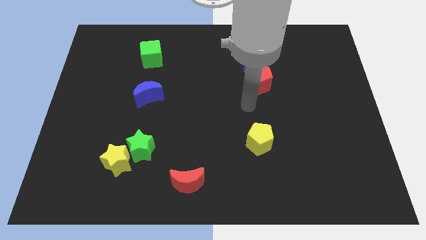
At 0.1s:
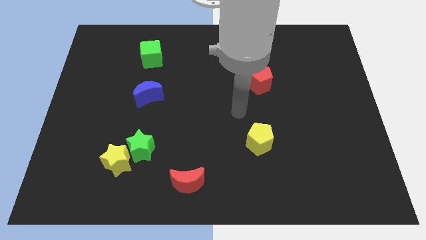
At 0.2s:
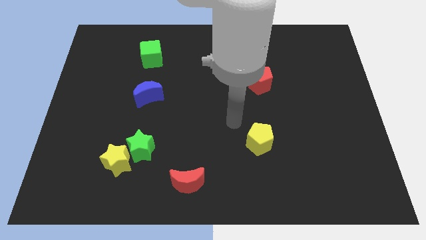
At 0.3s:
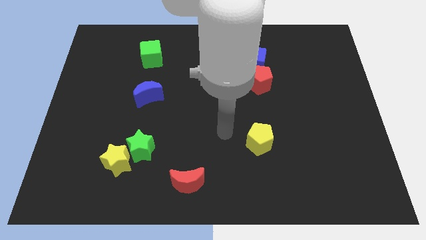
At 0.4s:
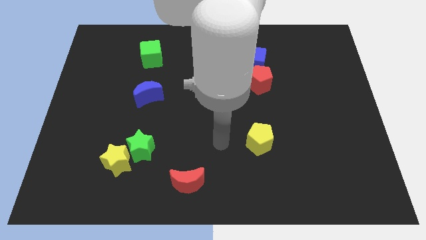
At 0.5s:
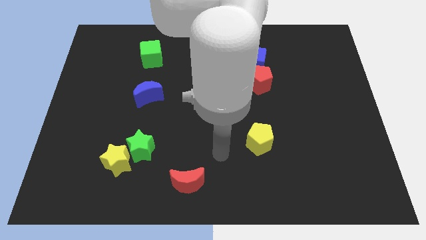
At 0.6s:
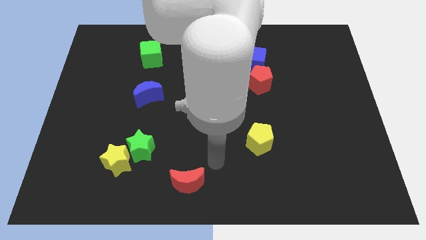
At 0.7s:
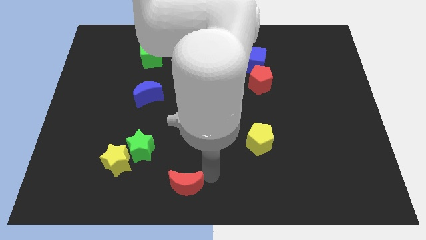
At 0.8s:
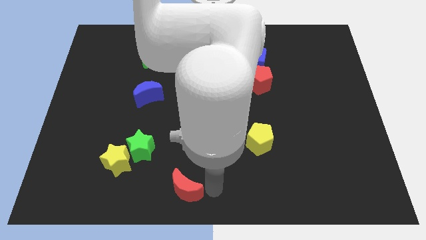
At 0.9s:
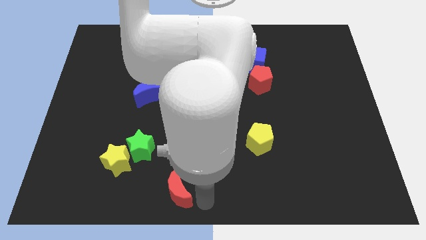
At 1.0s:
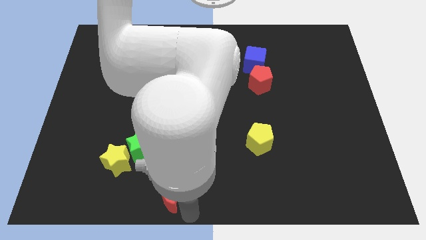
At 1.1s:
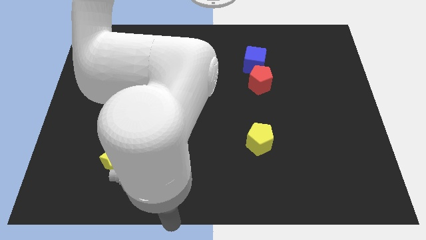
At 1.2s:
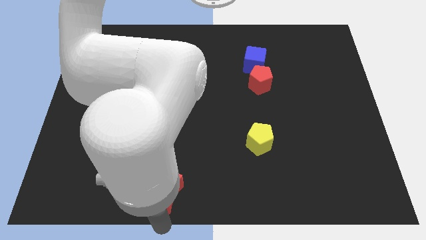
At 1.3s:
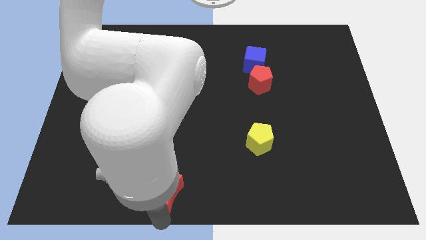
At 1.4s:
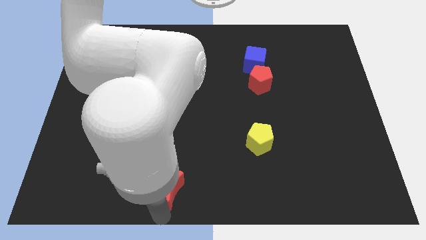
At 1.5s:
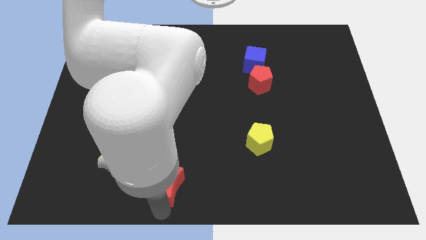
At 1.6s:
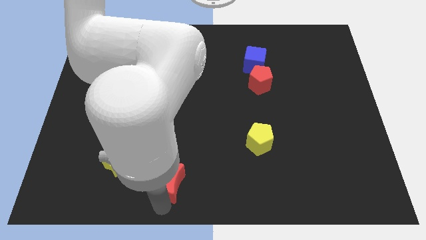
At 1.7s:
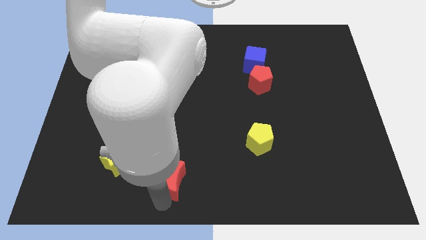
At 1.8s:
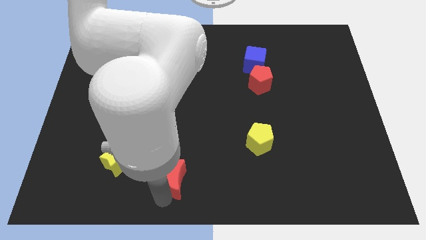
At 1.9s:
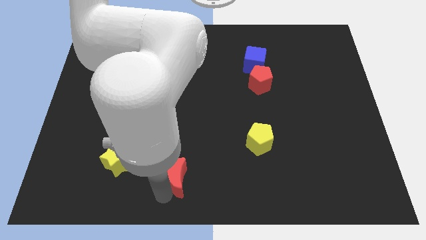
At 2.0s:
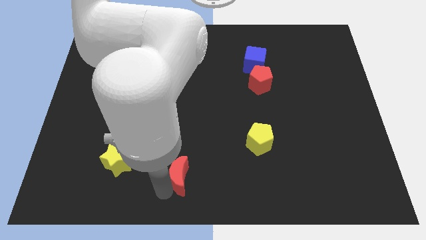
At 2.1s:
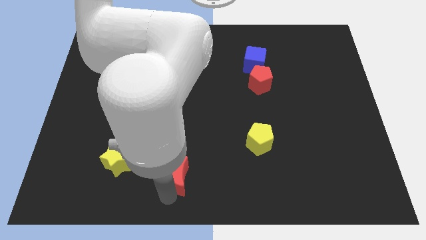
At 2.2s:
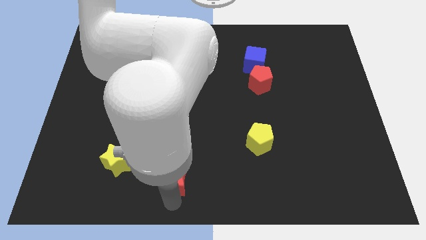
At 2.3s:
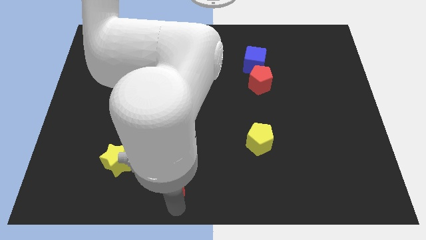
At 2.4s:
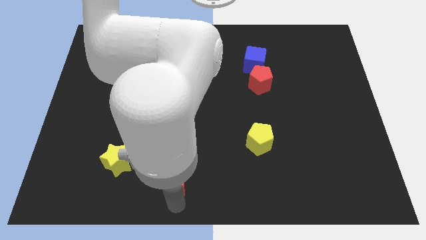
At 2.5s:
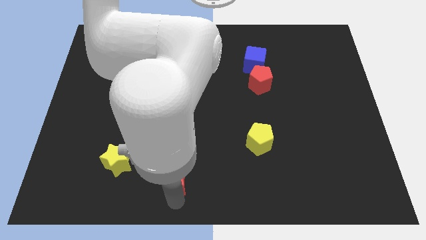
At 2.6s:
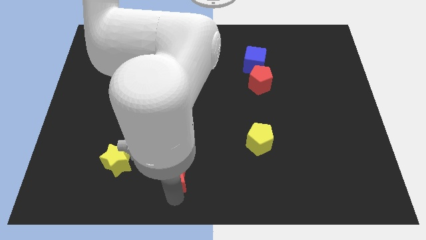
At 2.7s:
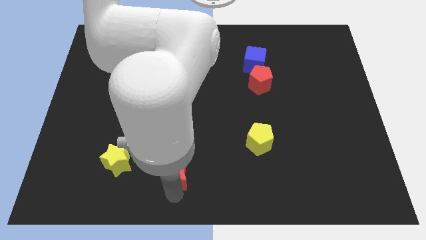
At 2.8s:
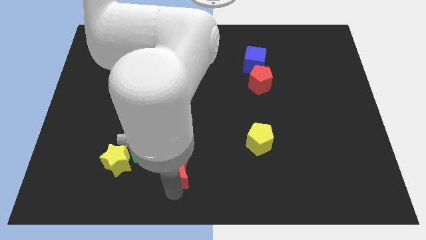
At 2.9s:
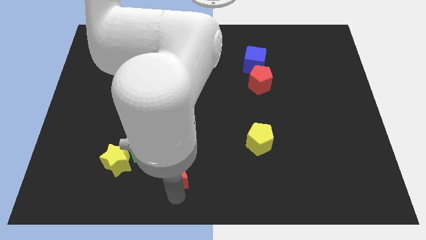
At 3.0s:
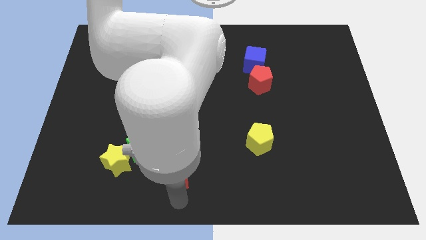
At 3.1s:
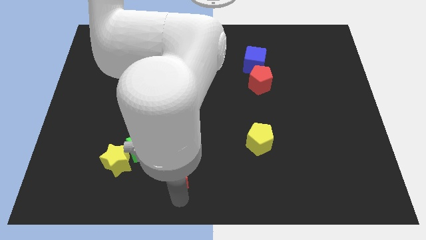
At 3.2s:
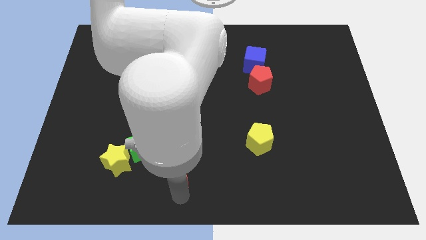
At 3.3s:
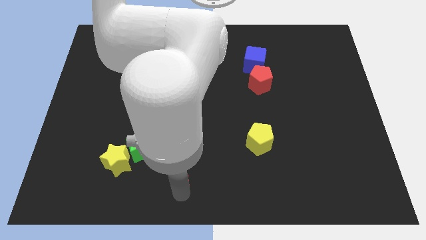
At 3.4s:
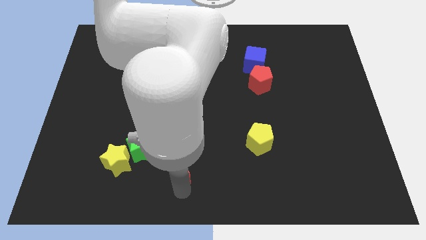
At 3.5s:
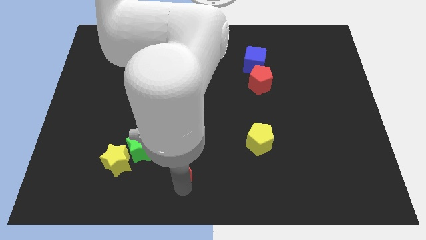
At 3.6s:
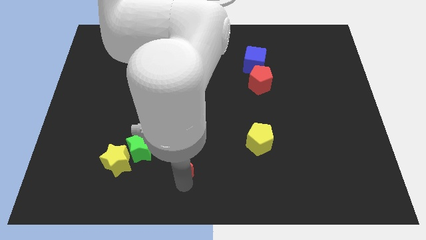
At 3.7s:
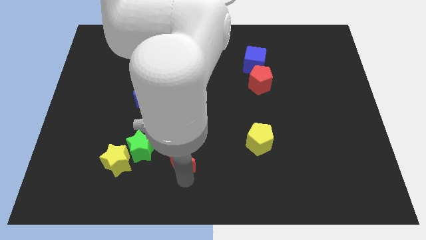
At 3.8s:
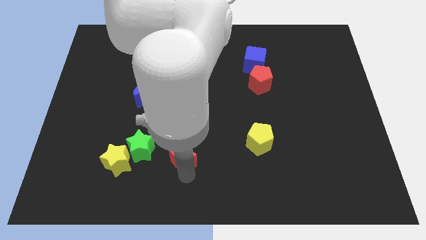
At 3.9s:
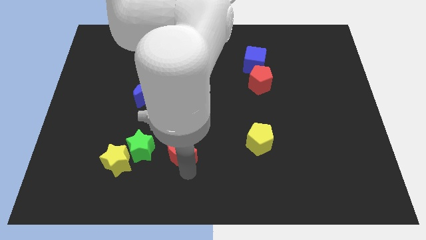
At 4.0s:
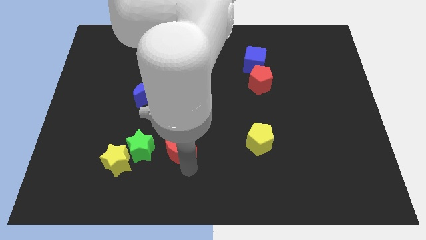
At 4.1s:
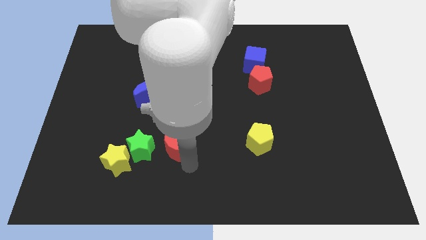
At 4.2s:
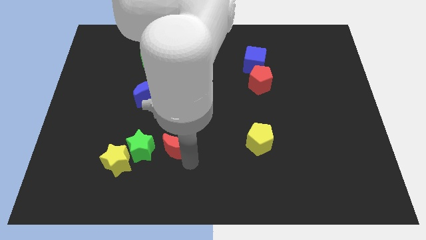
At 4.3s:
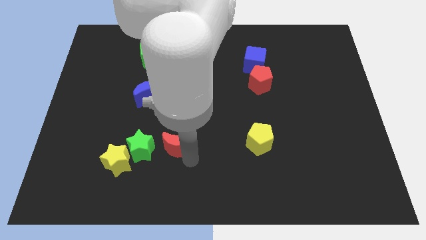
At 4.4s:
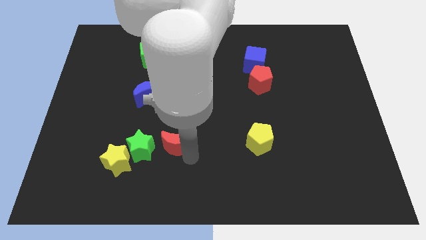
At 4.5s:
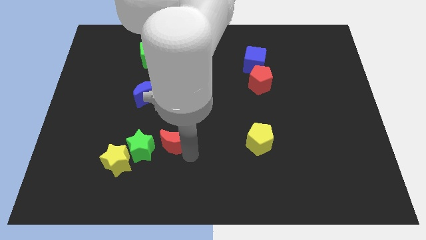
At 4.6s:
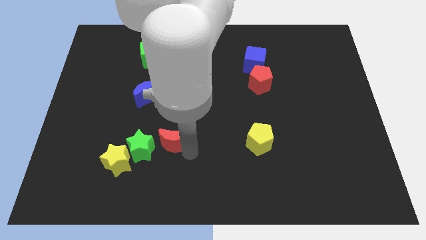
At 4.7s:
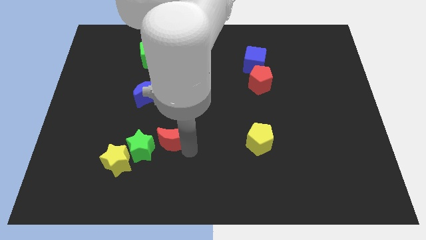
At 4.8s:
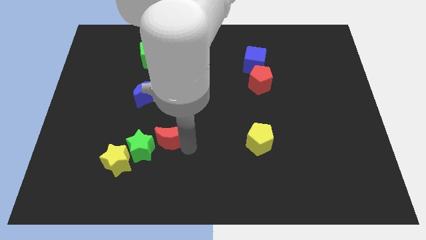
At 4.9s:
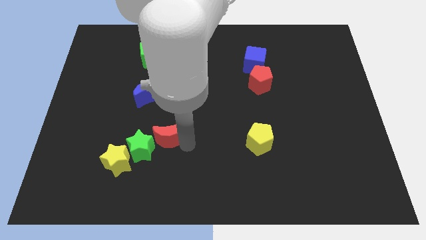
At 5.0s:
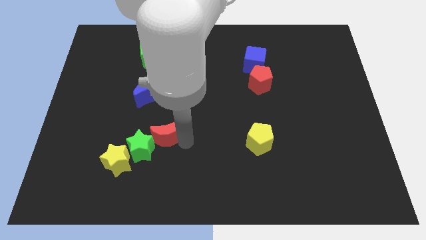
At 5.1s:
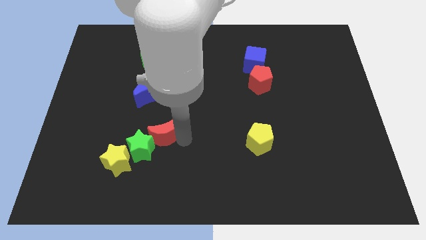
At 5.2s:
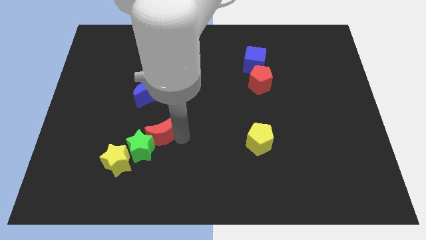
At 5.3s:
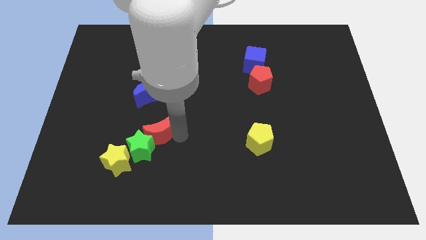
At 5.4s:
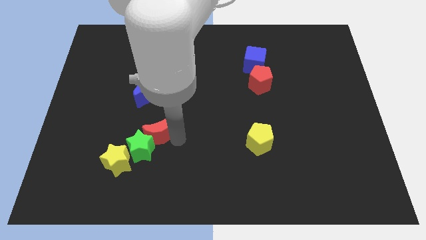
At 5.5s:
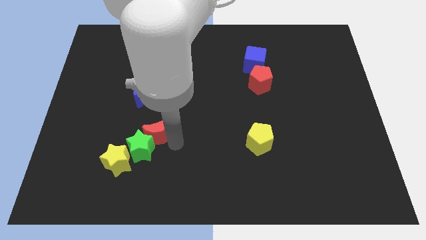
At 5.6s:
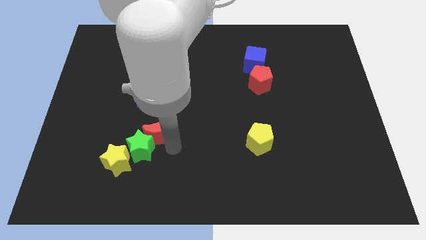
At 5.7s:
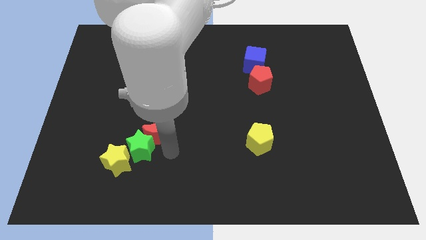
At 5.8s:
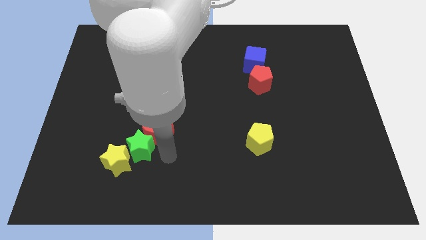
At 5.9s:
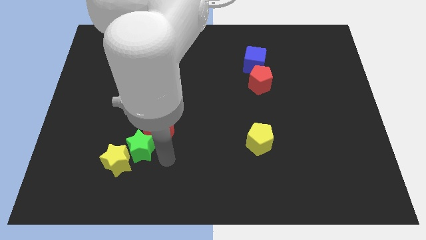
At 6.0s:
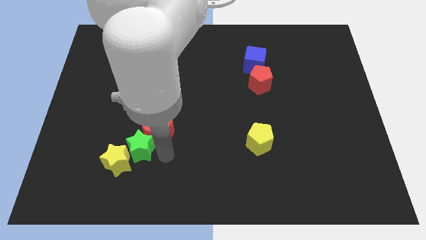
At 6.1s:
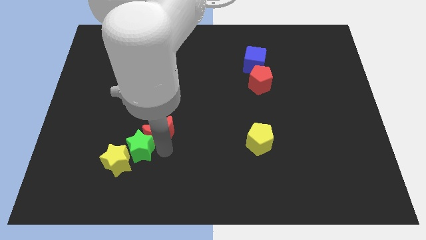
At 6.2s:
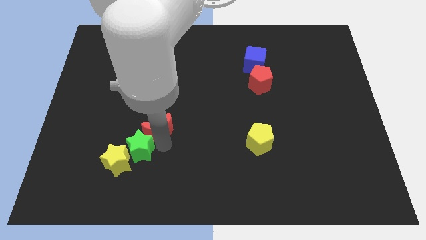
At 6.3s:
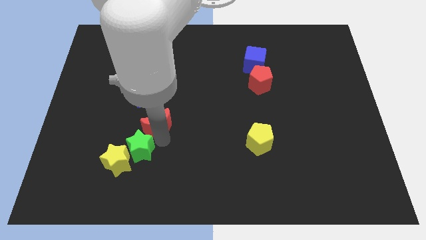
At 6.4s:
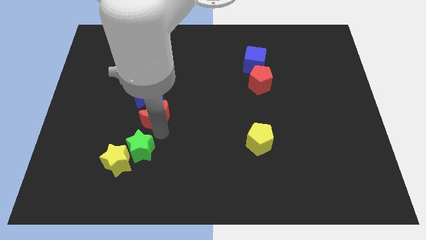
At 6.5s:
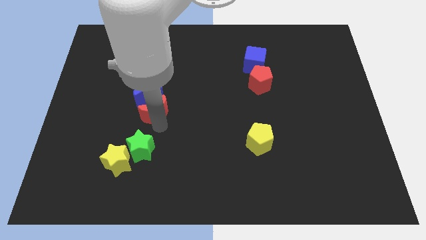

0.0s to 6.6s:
put the red moon close to the blue moon

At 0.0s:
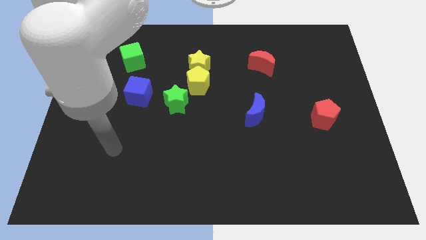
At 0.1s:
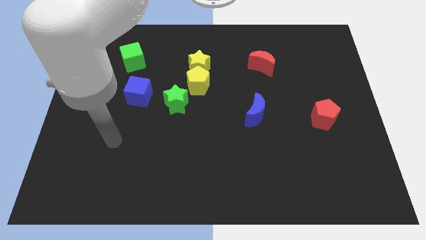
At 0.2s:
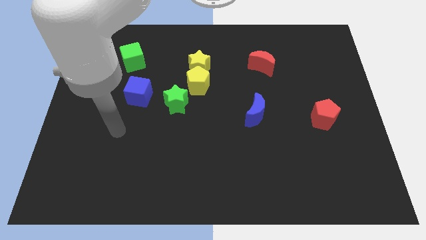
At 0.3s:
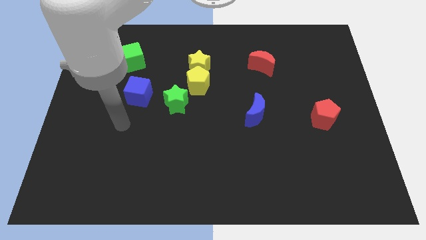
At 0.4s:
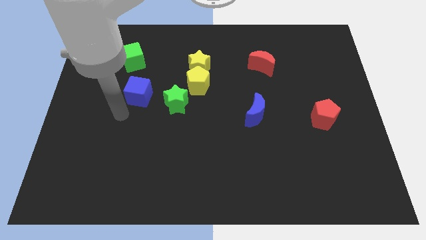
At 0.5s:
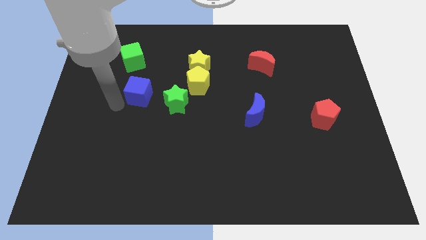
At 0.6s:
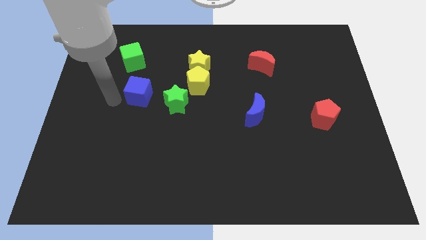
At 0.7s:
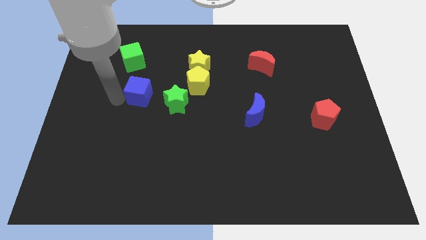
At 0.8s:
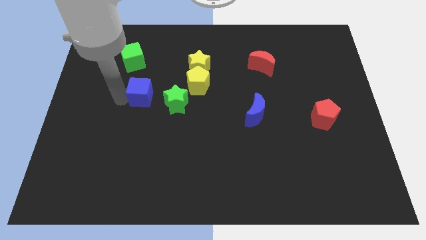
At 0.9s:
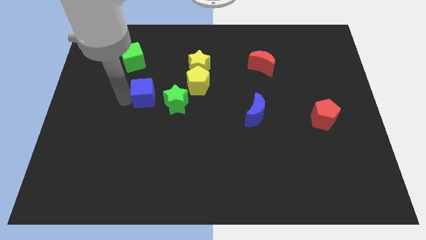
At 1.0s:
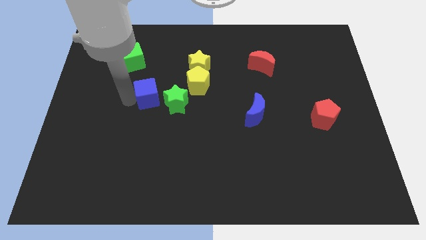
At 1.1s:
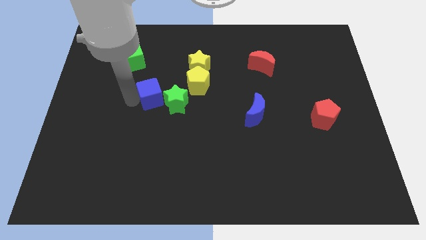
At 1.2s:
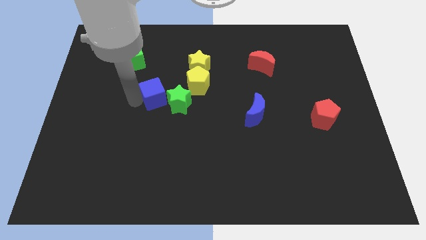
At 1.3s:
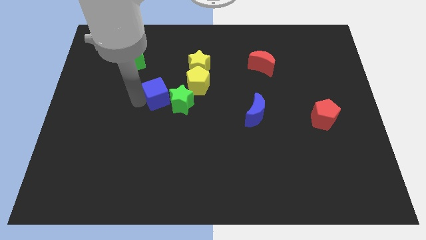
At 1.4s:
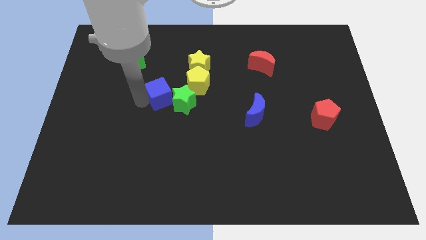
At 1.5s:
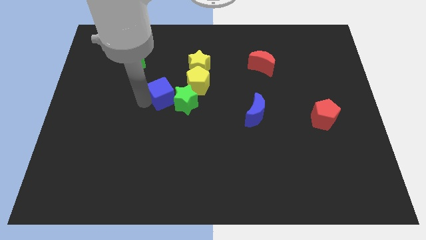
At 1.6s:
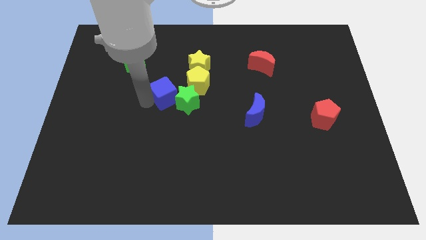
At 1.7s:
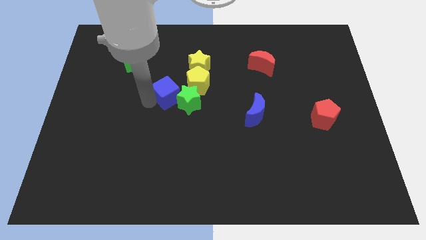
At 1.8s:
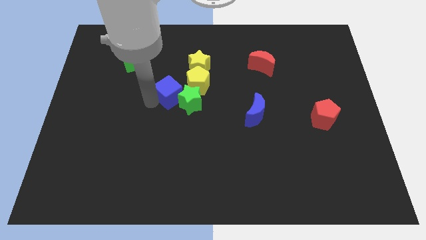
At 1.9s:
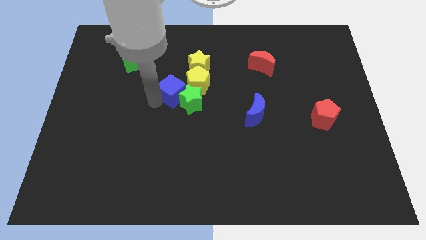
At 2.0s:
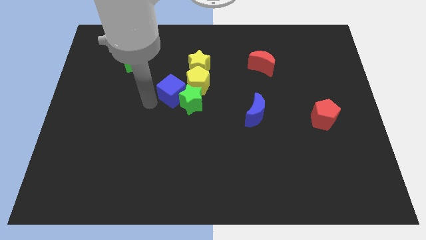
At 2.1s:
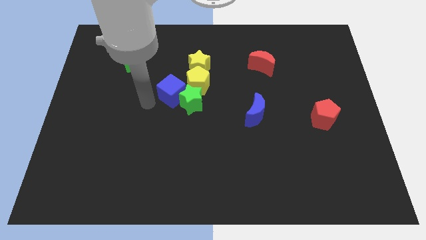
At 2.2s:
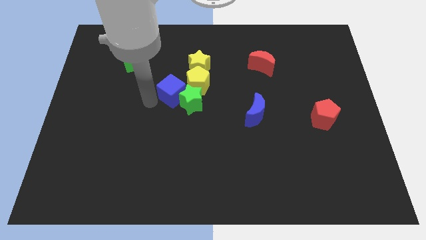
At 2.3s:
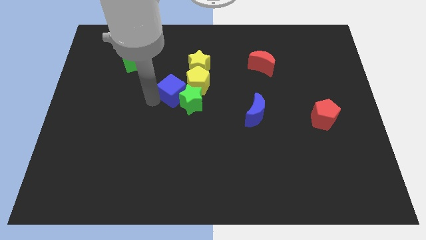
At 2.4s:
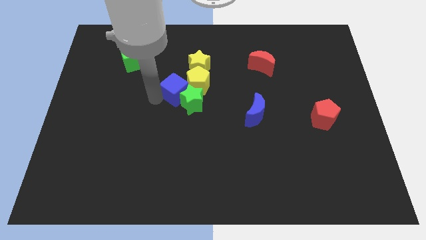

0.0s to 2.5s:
push the blue cube towards the yellow pentagon
